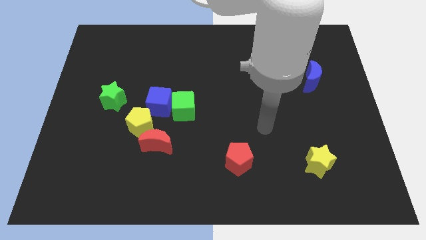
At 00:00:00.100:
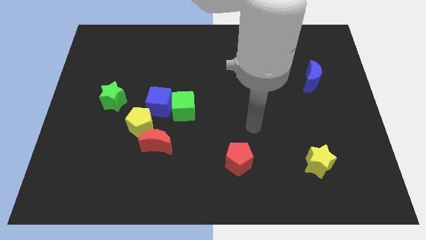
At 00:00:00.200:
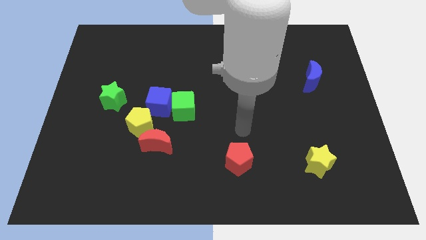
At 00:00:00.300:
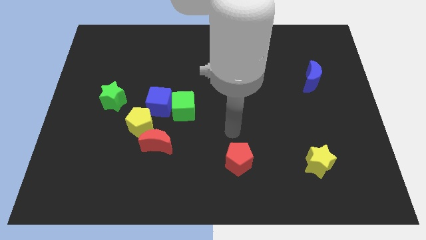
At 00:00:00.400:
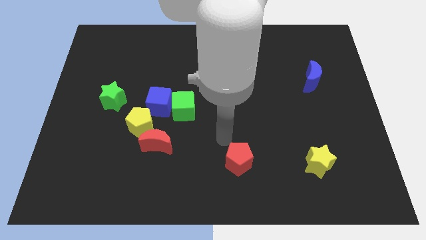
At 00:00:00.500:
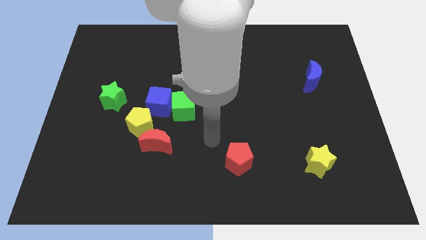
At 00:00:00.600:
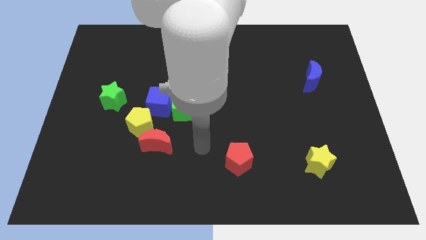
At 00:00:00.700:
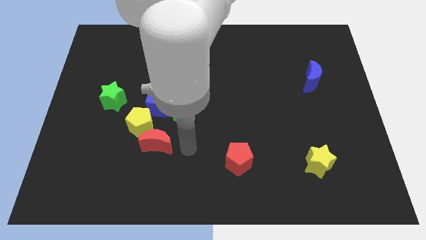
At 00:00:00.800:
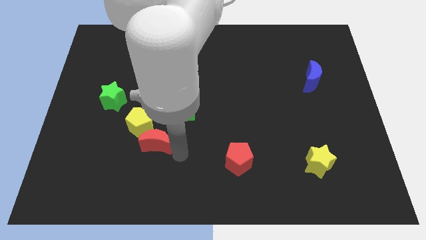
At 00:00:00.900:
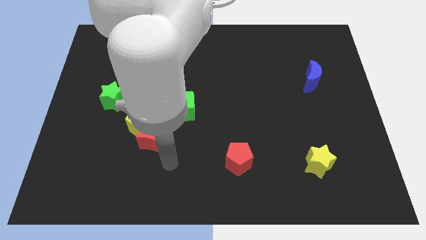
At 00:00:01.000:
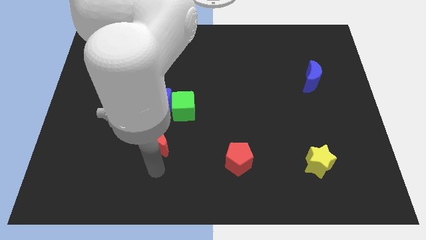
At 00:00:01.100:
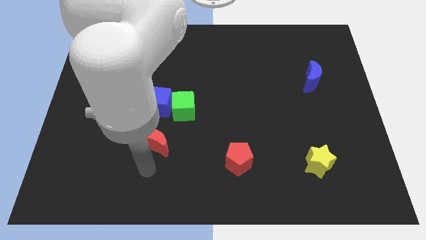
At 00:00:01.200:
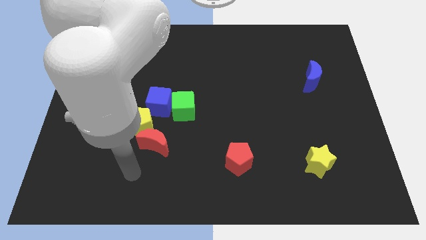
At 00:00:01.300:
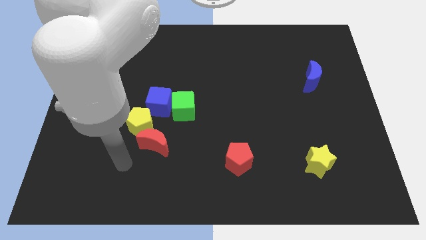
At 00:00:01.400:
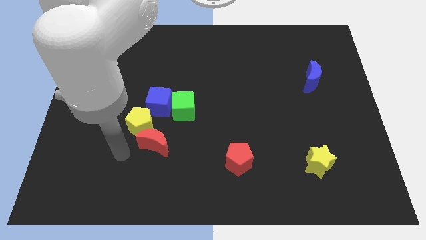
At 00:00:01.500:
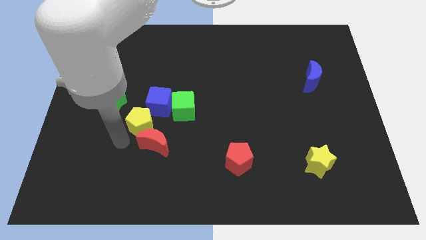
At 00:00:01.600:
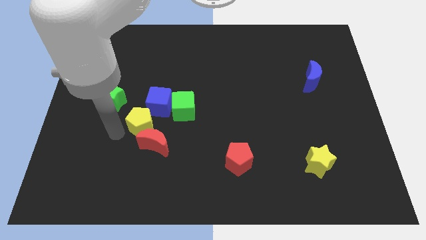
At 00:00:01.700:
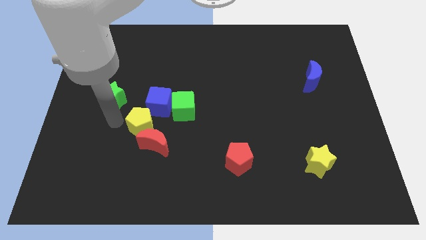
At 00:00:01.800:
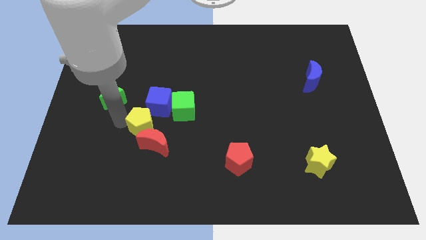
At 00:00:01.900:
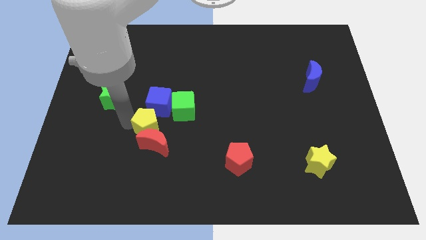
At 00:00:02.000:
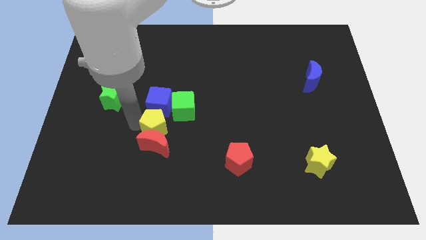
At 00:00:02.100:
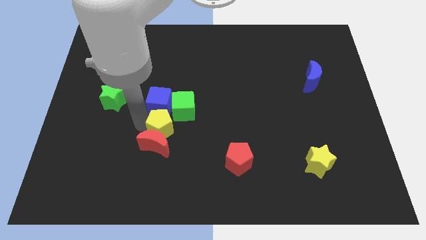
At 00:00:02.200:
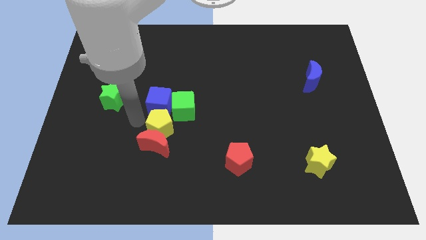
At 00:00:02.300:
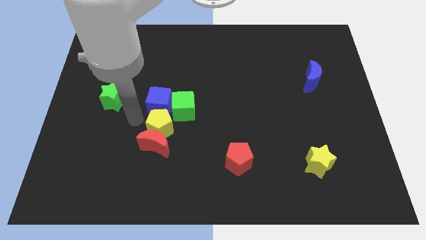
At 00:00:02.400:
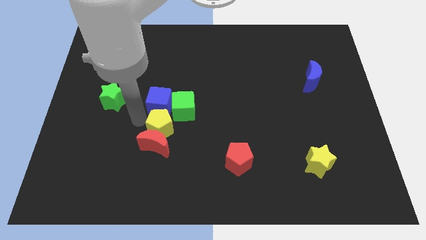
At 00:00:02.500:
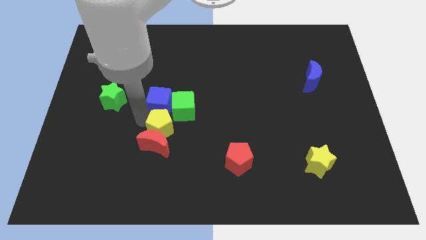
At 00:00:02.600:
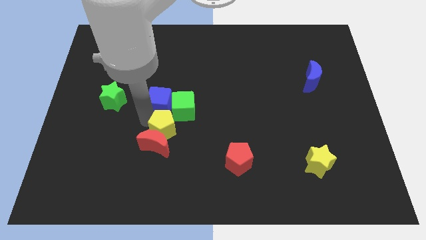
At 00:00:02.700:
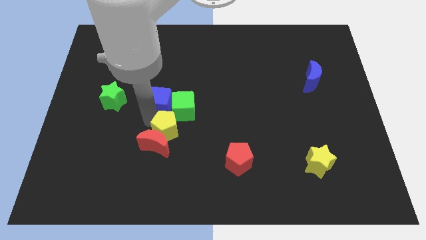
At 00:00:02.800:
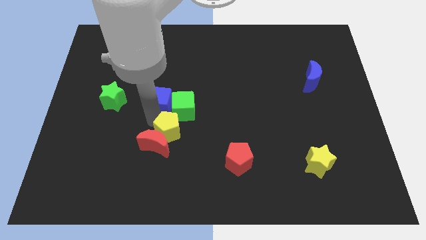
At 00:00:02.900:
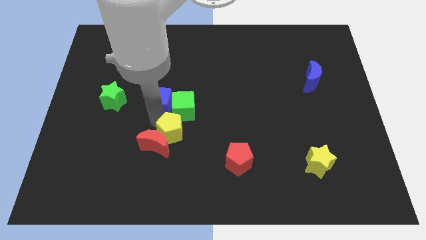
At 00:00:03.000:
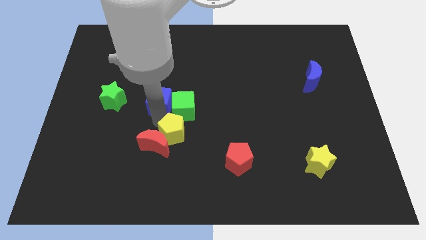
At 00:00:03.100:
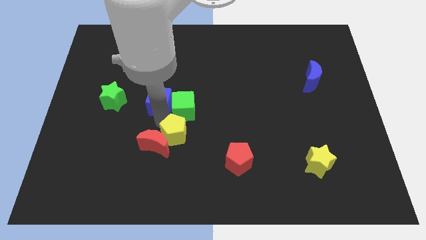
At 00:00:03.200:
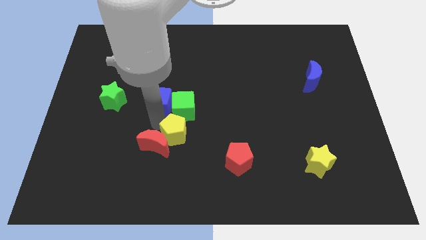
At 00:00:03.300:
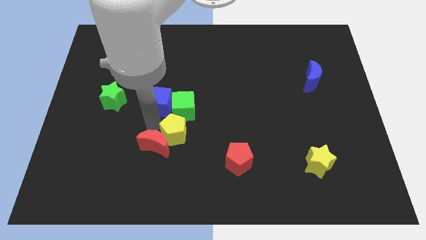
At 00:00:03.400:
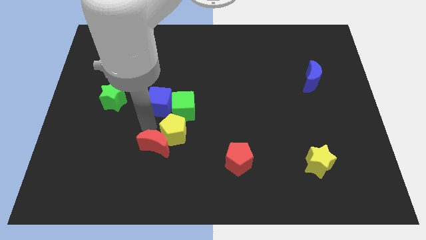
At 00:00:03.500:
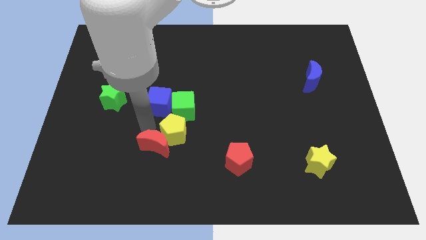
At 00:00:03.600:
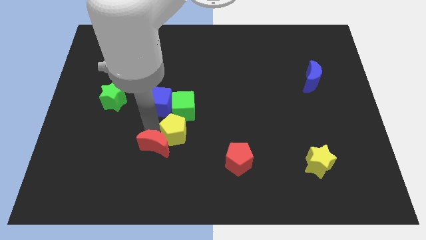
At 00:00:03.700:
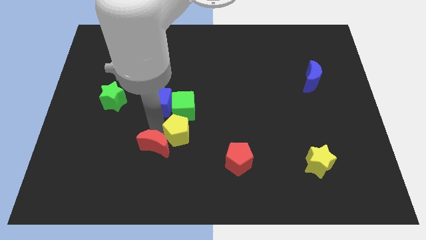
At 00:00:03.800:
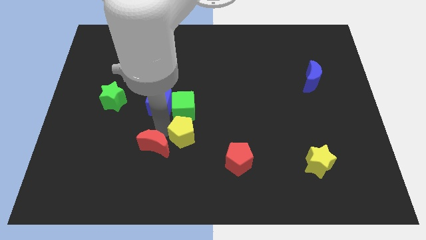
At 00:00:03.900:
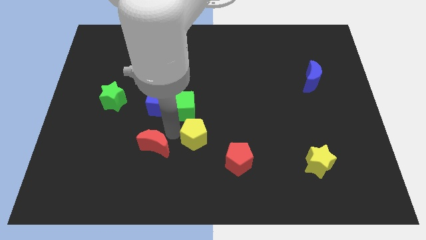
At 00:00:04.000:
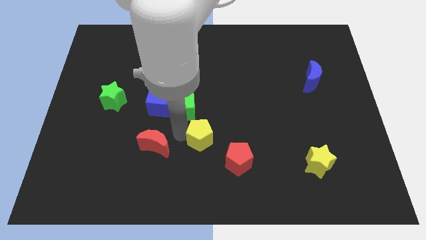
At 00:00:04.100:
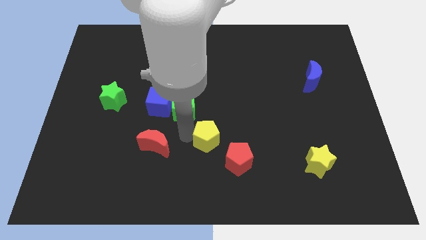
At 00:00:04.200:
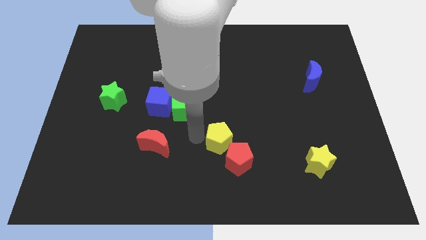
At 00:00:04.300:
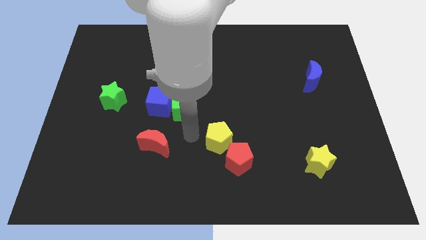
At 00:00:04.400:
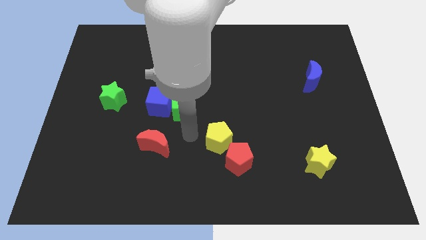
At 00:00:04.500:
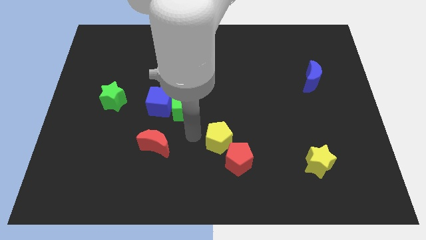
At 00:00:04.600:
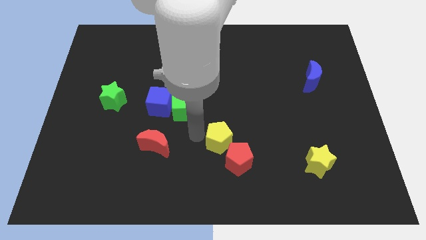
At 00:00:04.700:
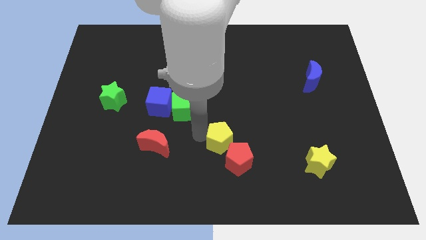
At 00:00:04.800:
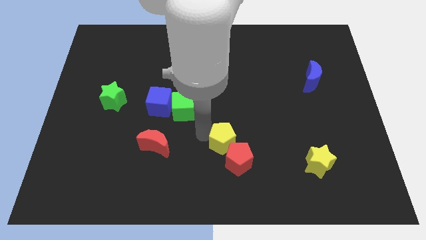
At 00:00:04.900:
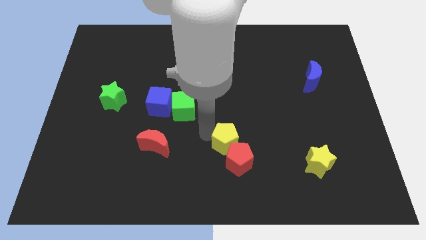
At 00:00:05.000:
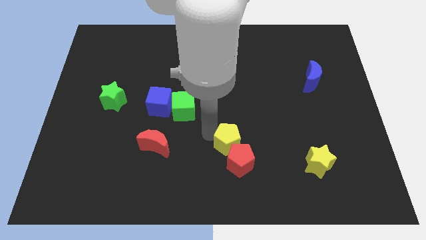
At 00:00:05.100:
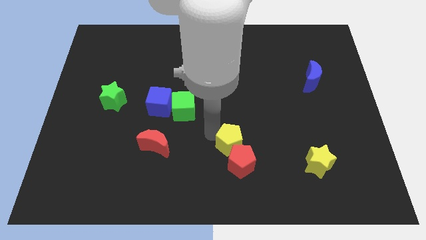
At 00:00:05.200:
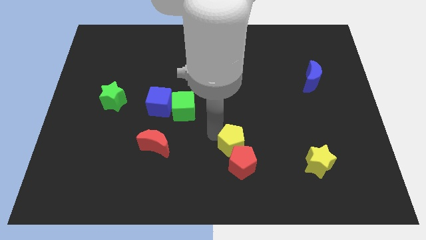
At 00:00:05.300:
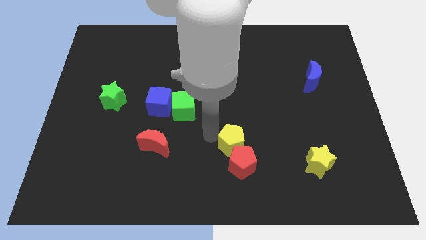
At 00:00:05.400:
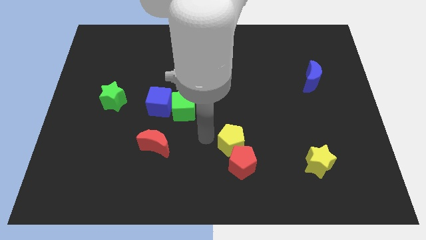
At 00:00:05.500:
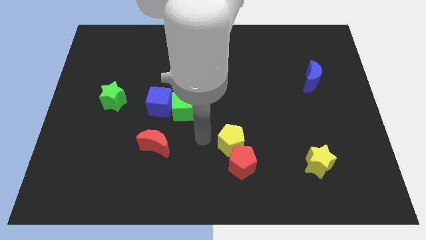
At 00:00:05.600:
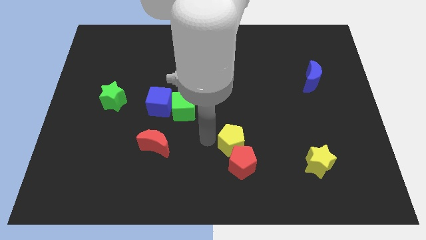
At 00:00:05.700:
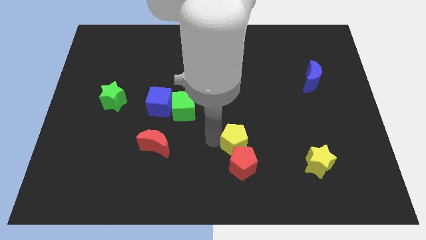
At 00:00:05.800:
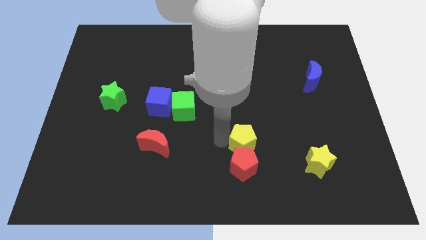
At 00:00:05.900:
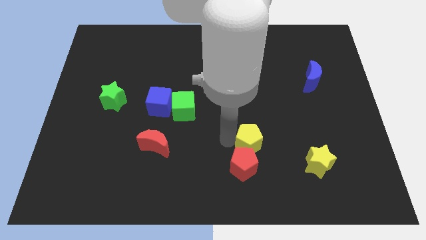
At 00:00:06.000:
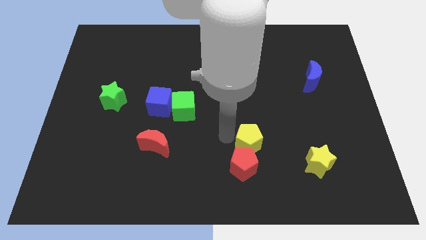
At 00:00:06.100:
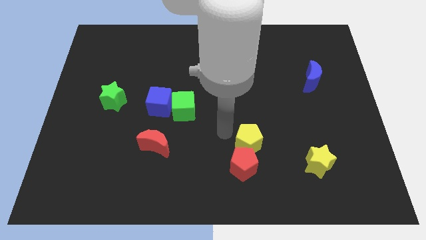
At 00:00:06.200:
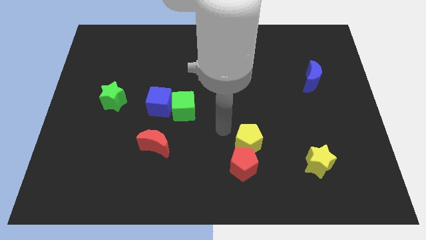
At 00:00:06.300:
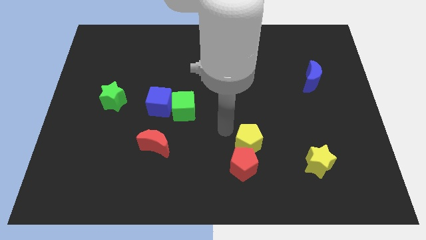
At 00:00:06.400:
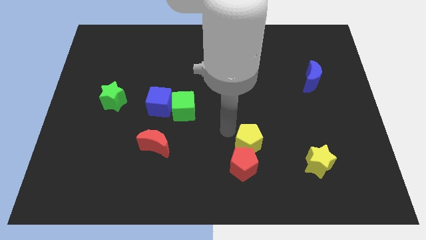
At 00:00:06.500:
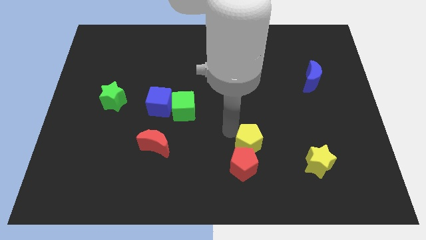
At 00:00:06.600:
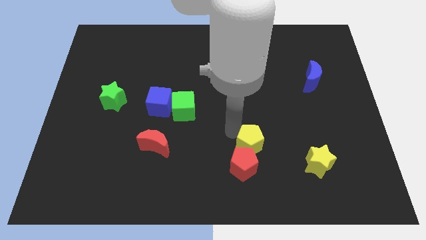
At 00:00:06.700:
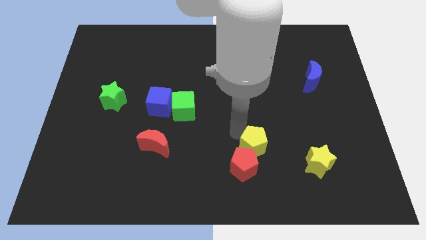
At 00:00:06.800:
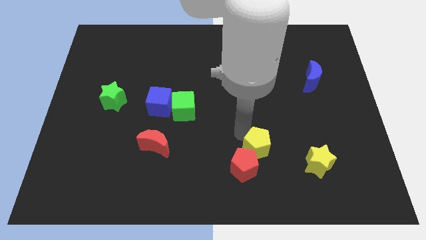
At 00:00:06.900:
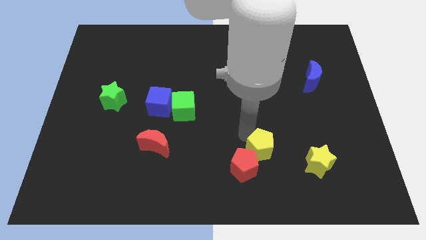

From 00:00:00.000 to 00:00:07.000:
put the yellow pentagon to the right of the red pentagon
